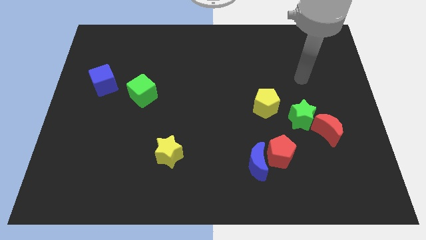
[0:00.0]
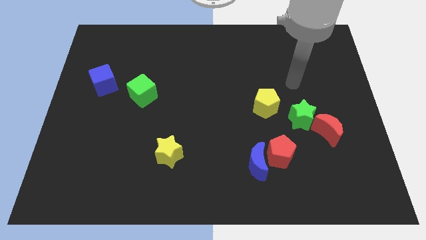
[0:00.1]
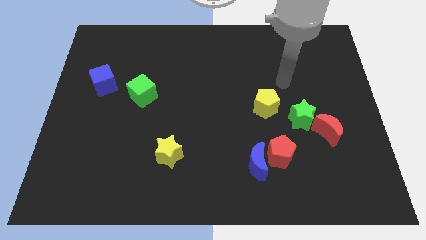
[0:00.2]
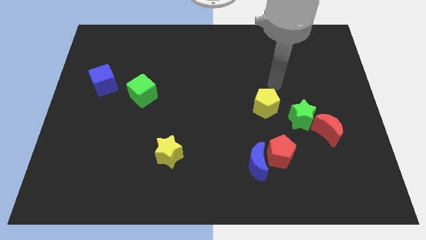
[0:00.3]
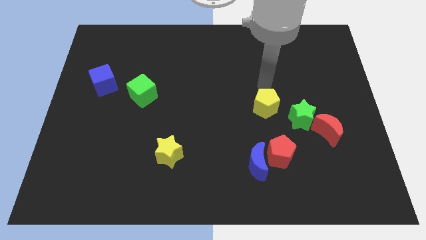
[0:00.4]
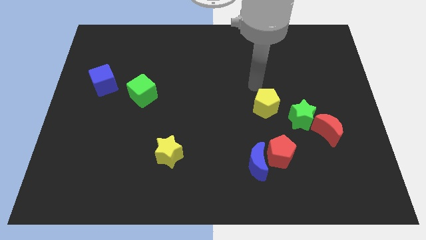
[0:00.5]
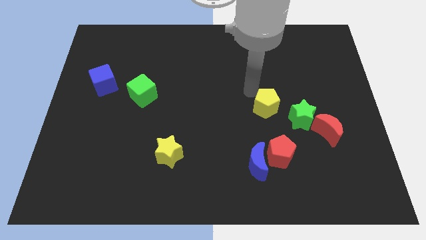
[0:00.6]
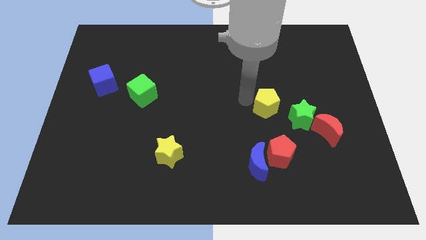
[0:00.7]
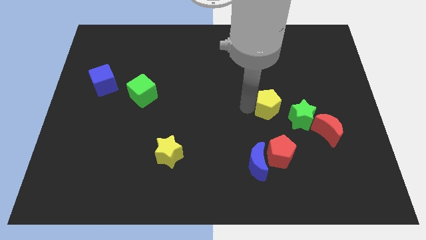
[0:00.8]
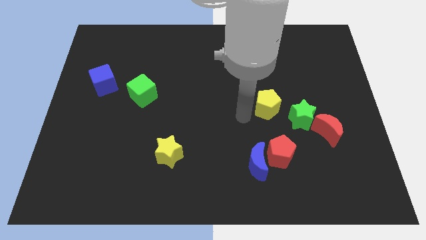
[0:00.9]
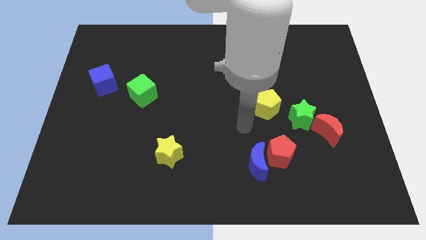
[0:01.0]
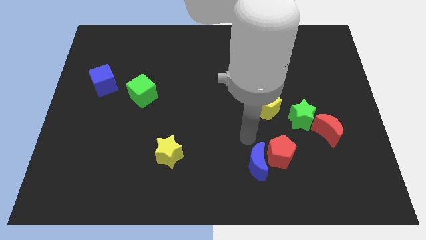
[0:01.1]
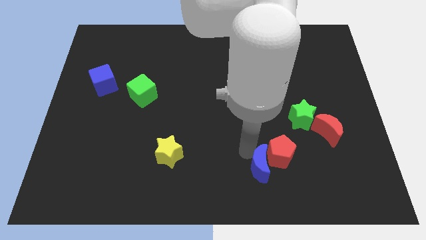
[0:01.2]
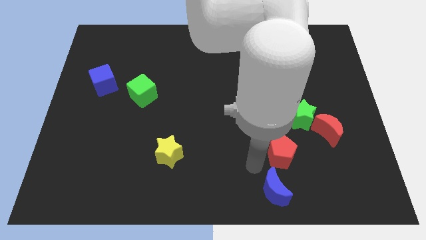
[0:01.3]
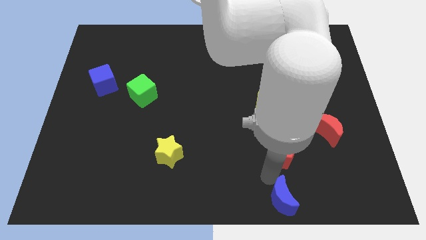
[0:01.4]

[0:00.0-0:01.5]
pull the red pentagon apart from the blue moon

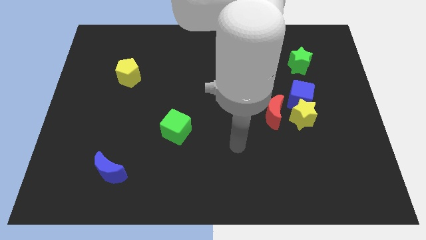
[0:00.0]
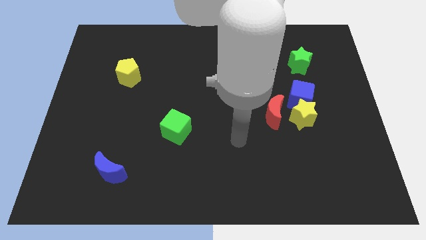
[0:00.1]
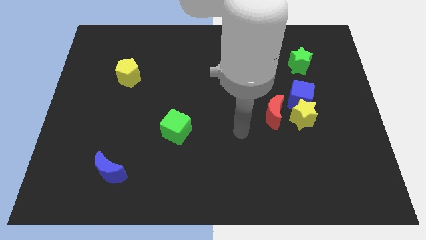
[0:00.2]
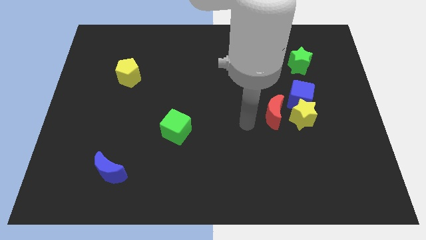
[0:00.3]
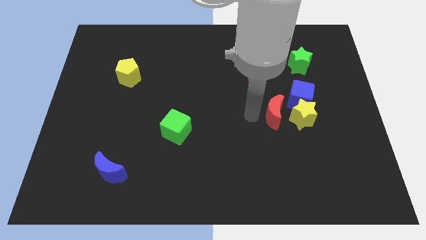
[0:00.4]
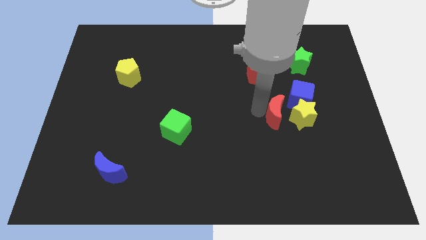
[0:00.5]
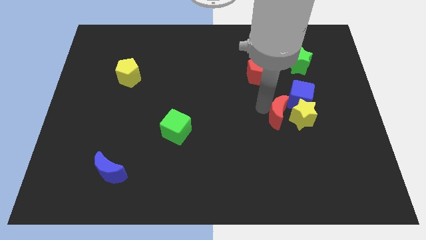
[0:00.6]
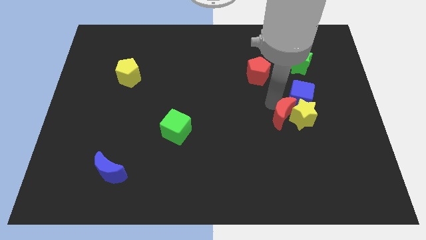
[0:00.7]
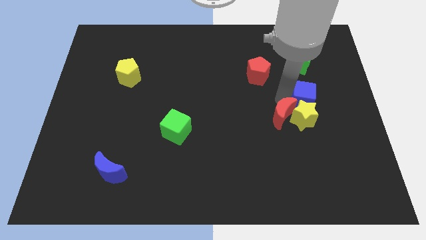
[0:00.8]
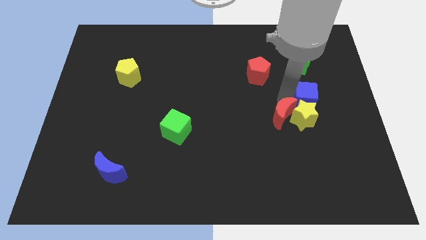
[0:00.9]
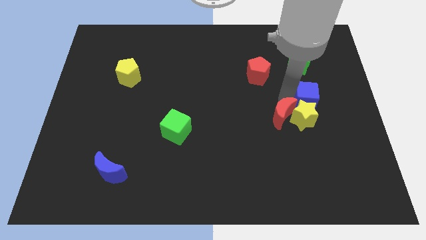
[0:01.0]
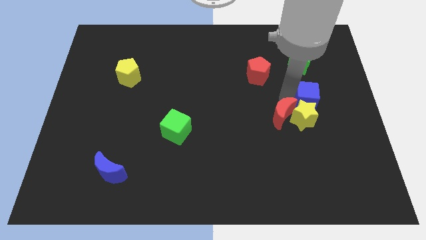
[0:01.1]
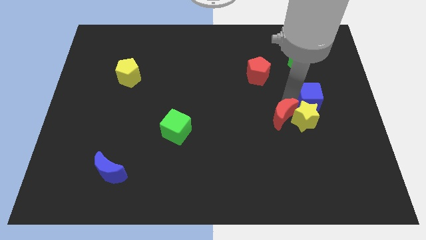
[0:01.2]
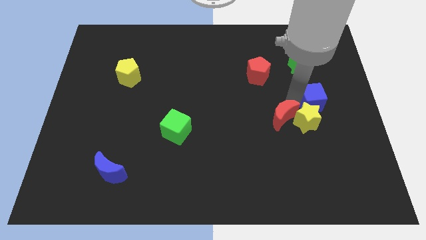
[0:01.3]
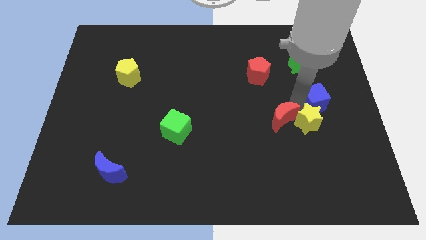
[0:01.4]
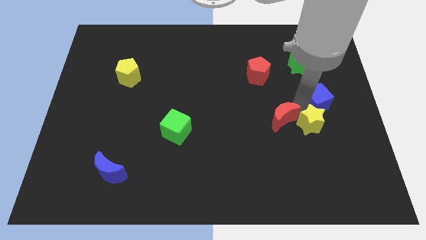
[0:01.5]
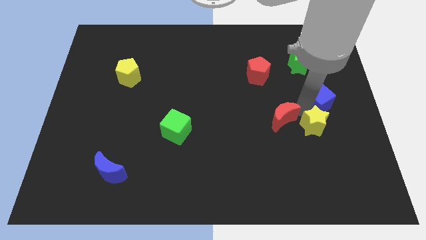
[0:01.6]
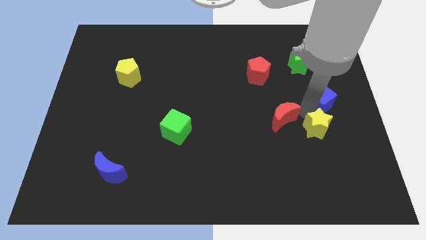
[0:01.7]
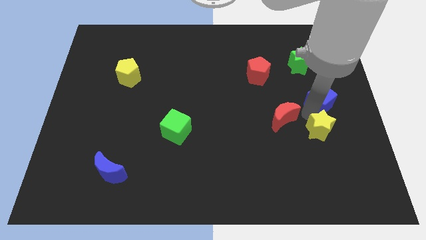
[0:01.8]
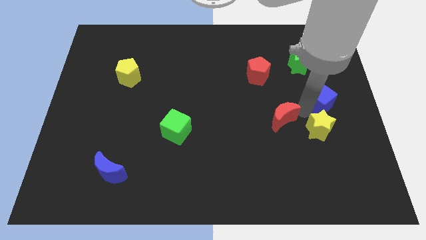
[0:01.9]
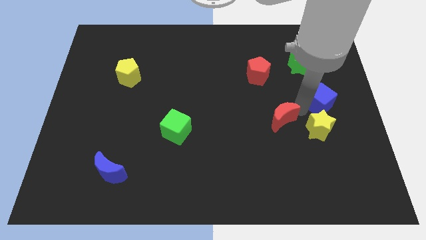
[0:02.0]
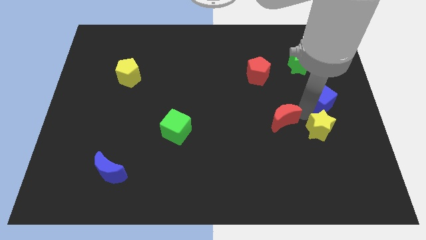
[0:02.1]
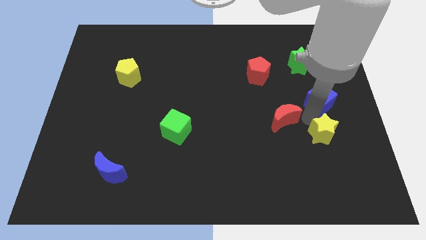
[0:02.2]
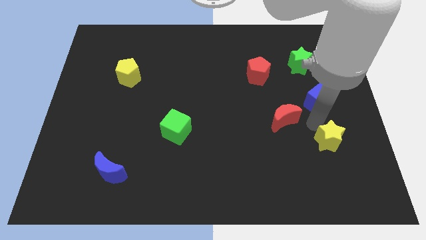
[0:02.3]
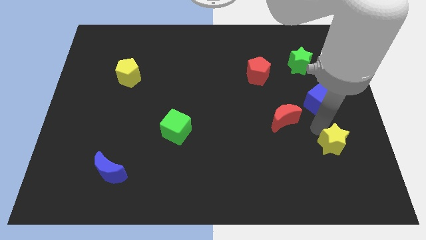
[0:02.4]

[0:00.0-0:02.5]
separate the yellow star from the blue cube and red moon

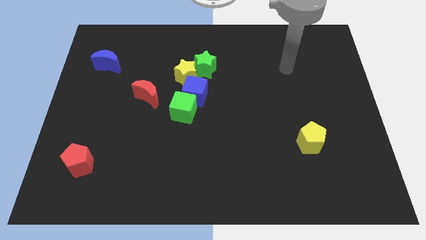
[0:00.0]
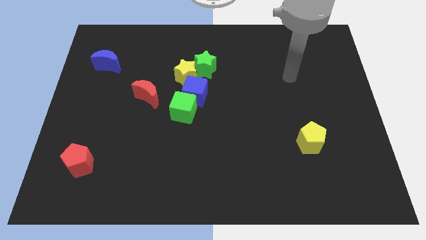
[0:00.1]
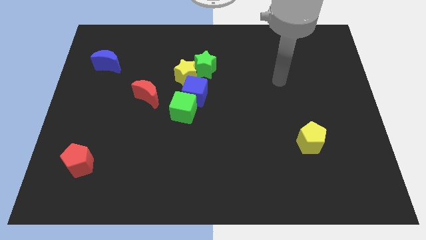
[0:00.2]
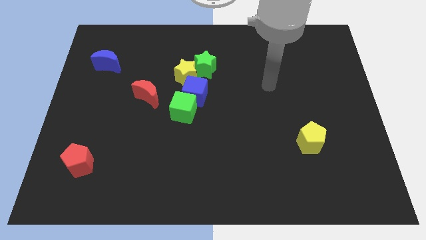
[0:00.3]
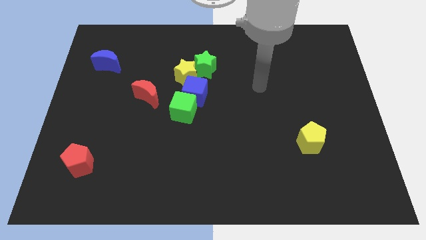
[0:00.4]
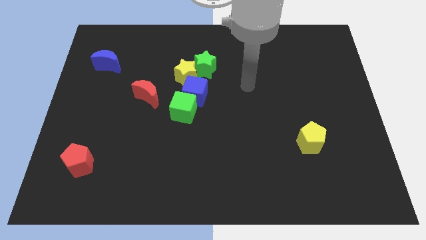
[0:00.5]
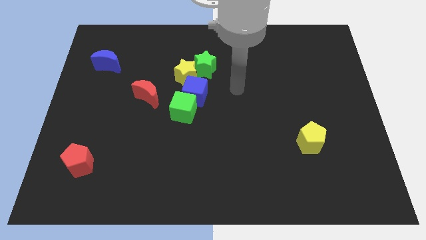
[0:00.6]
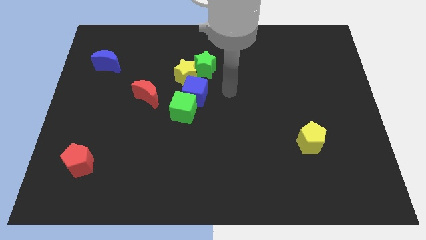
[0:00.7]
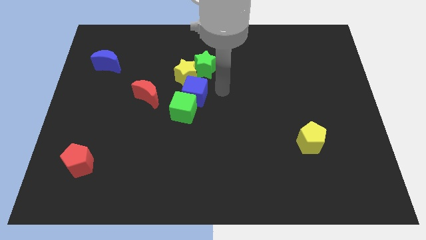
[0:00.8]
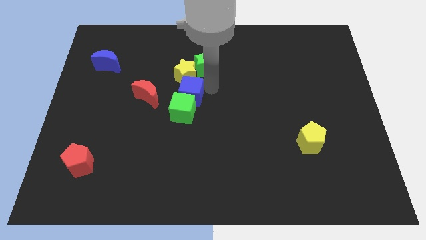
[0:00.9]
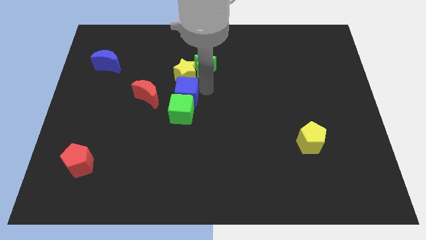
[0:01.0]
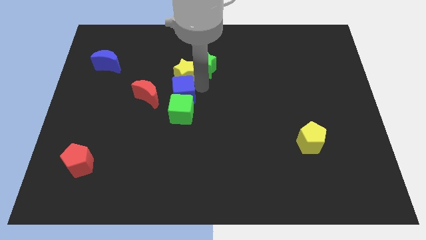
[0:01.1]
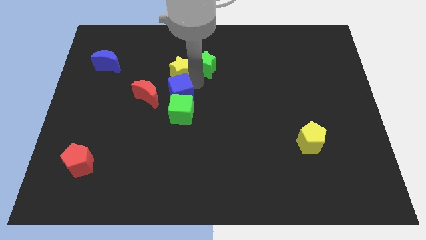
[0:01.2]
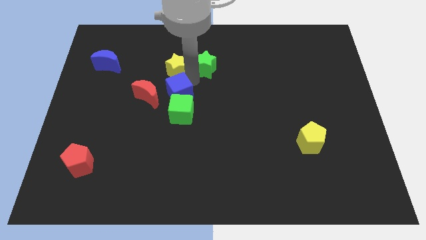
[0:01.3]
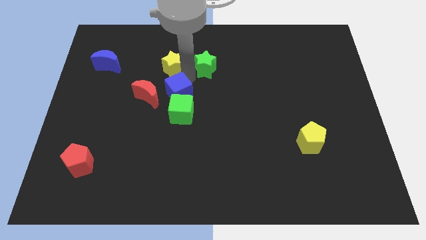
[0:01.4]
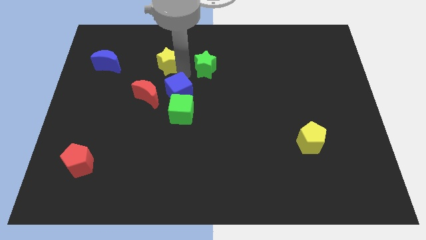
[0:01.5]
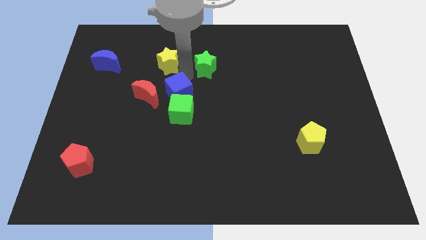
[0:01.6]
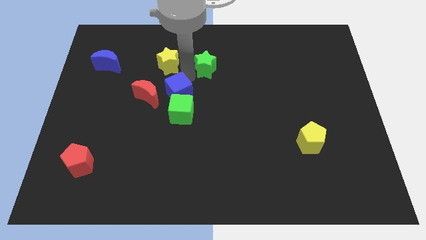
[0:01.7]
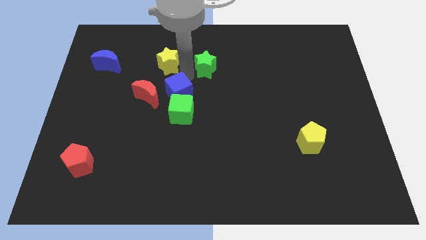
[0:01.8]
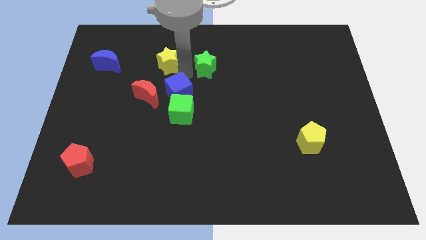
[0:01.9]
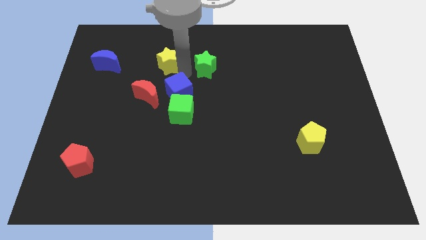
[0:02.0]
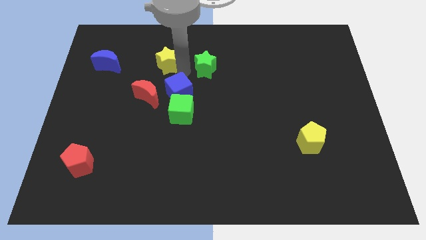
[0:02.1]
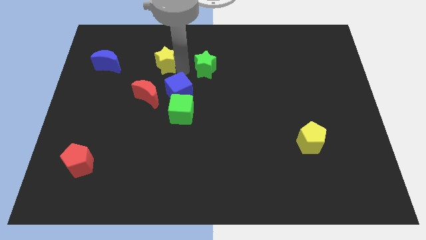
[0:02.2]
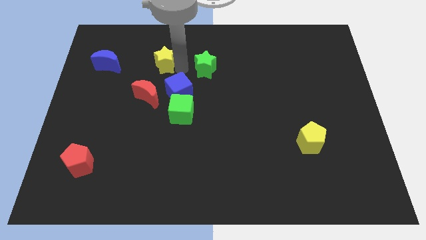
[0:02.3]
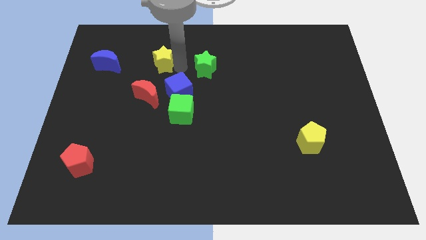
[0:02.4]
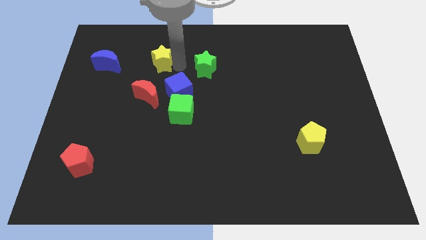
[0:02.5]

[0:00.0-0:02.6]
separate the yellow star from the green star and blue cube

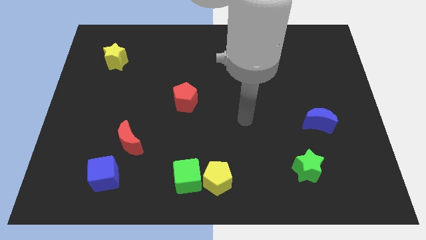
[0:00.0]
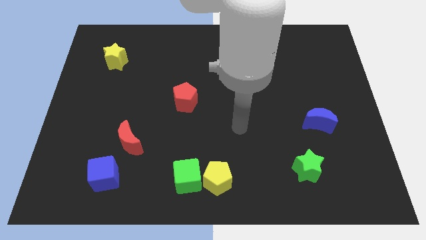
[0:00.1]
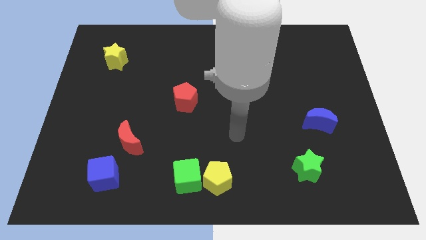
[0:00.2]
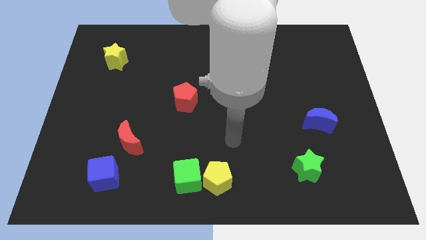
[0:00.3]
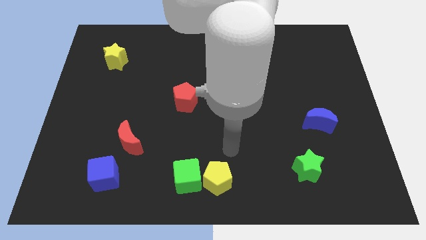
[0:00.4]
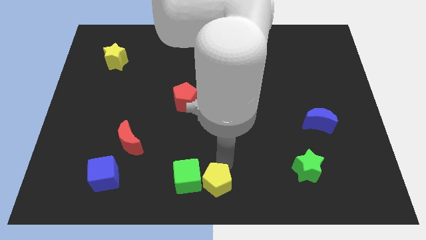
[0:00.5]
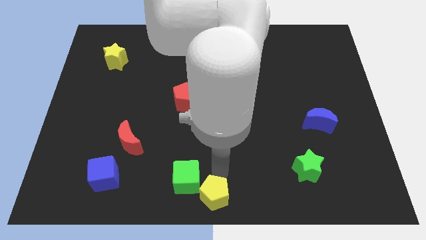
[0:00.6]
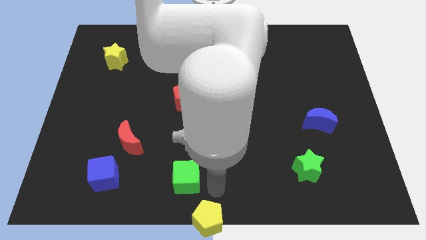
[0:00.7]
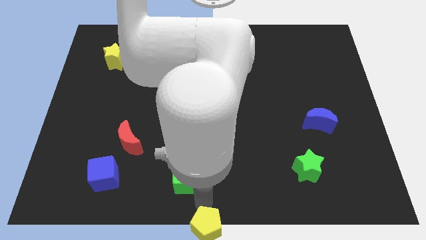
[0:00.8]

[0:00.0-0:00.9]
move the green cube away from the yellow pentagon

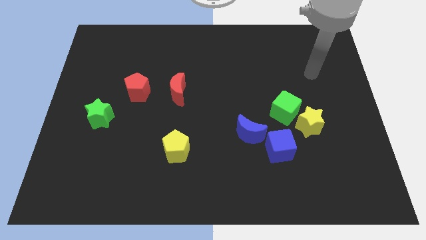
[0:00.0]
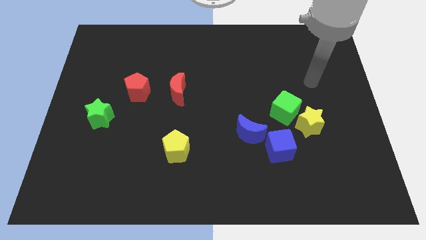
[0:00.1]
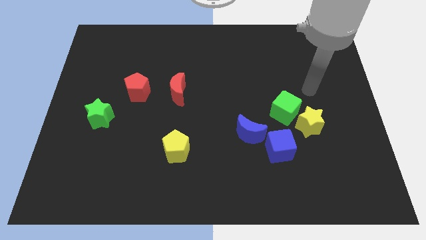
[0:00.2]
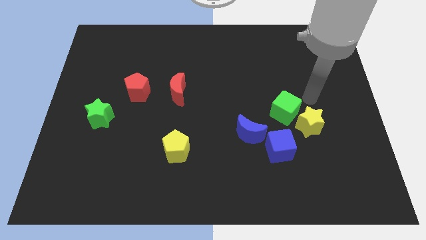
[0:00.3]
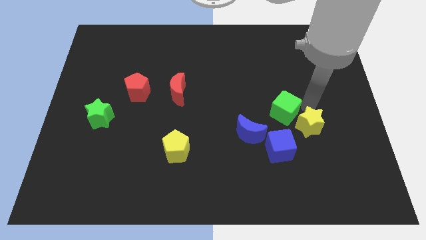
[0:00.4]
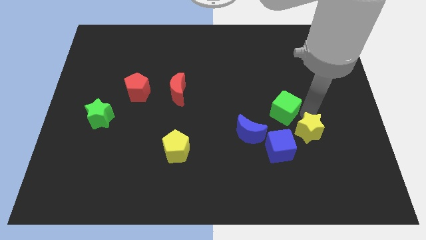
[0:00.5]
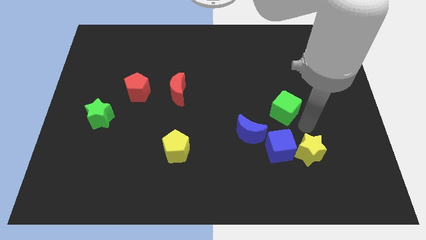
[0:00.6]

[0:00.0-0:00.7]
move the green cube away from the yellow star

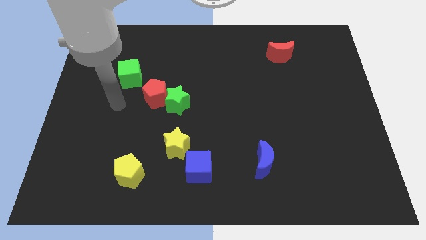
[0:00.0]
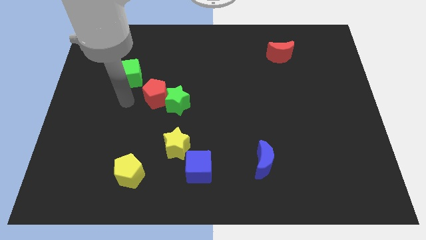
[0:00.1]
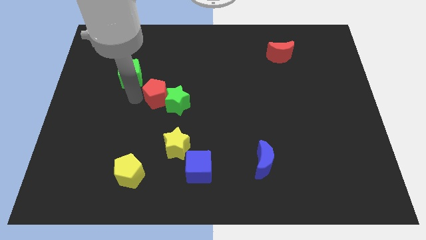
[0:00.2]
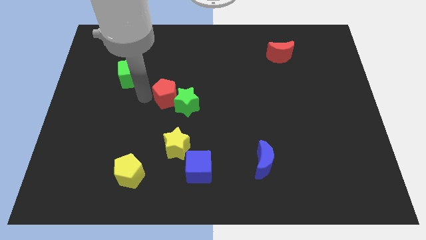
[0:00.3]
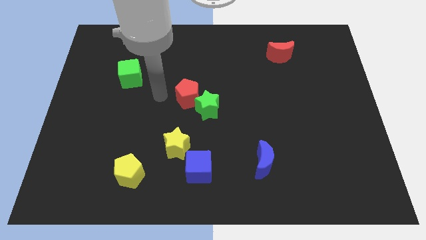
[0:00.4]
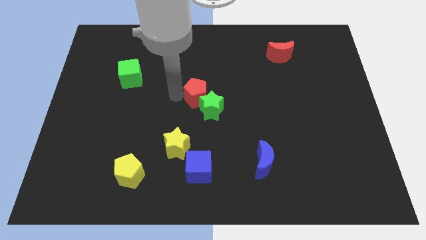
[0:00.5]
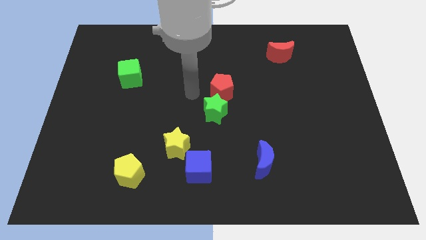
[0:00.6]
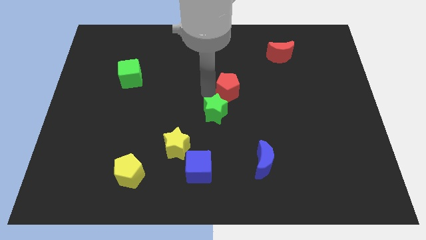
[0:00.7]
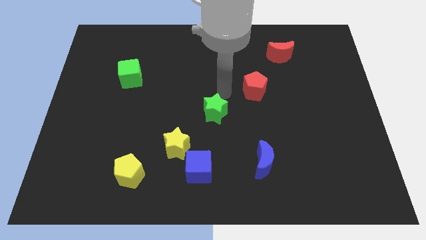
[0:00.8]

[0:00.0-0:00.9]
move the green star away from the red pentagon

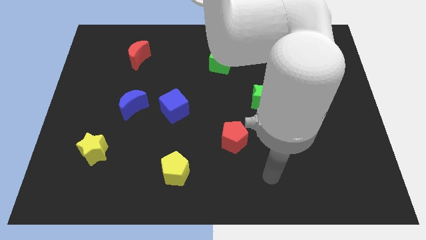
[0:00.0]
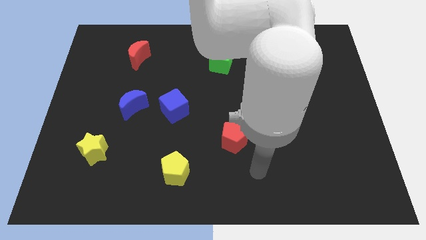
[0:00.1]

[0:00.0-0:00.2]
pull the blue moon apart from the blue cube
